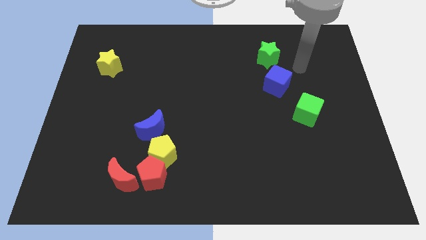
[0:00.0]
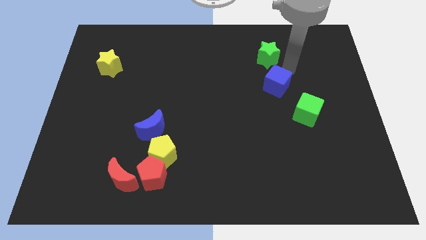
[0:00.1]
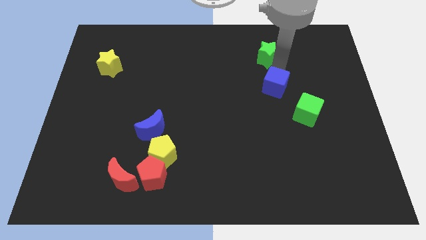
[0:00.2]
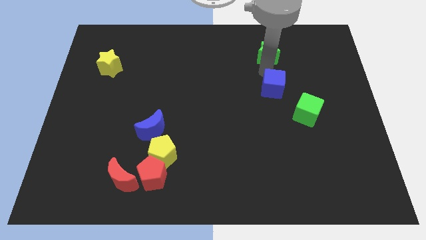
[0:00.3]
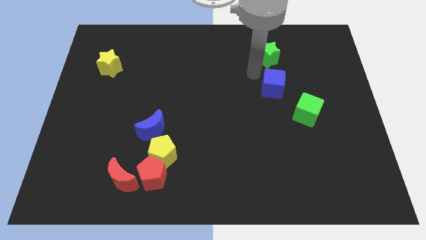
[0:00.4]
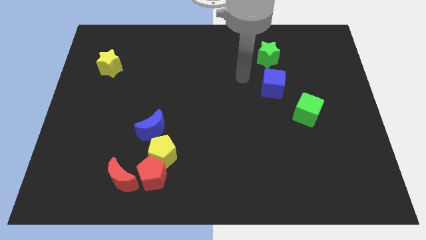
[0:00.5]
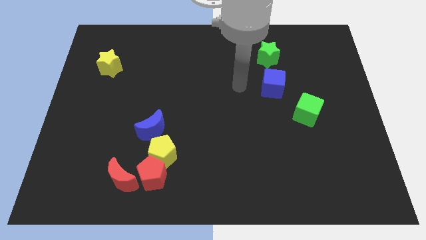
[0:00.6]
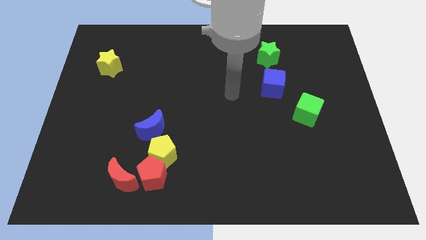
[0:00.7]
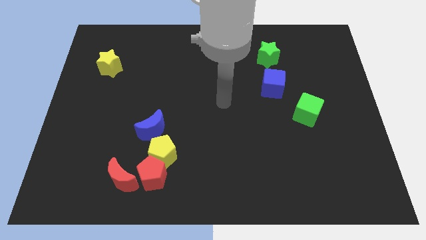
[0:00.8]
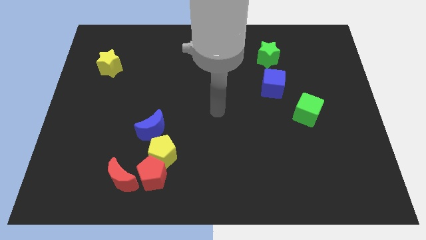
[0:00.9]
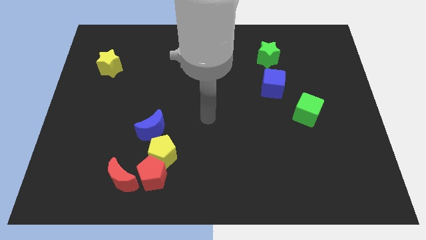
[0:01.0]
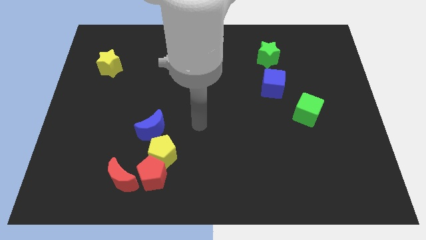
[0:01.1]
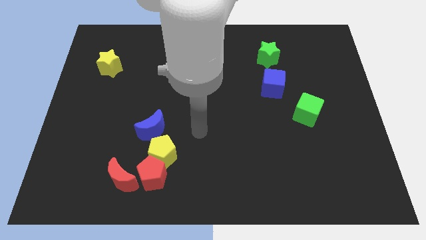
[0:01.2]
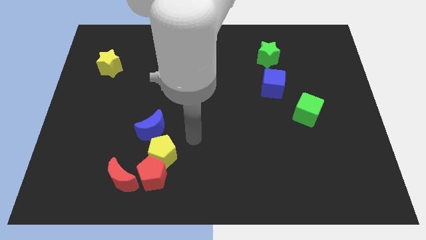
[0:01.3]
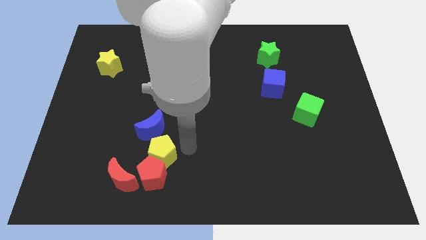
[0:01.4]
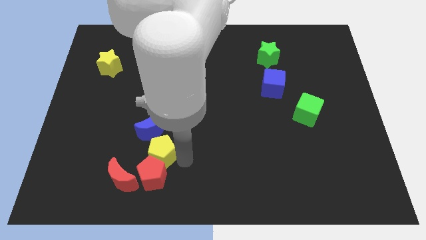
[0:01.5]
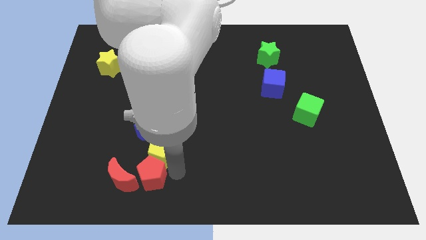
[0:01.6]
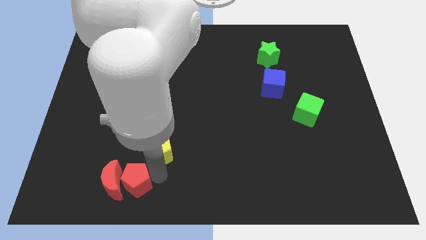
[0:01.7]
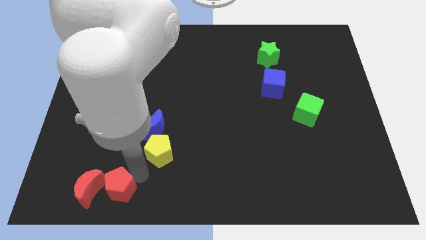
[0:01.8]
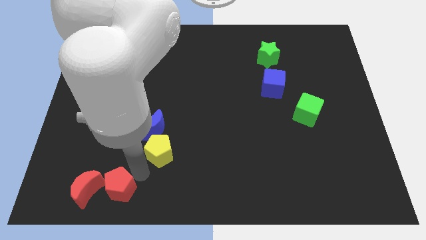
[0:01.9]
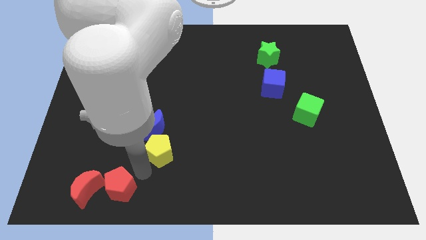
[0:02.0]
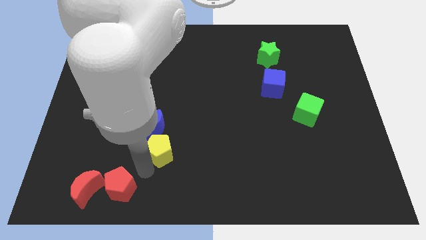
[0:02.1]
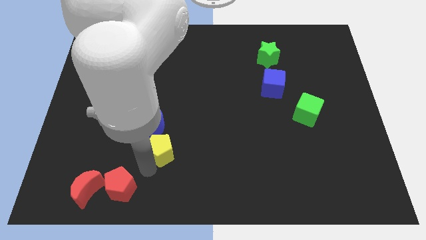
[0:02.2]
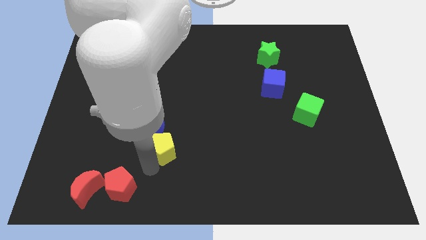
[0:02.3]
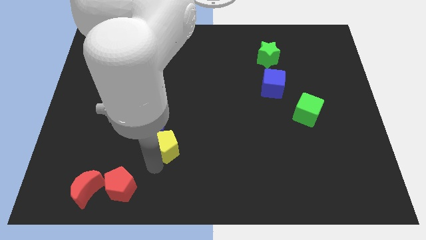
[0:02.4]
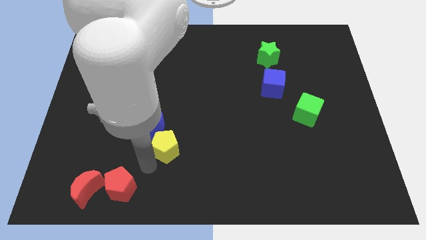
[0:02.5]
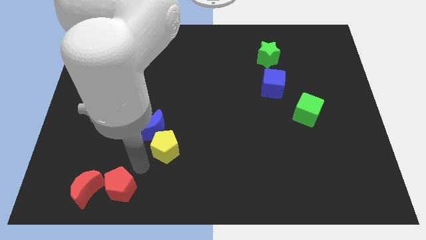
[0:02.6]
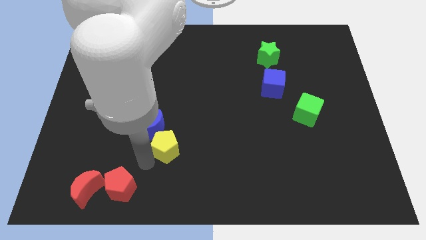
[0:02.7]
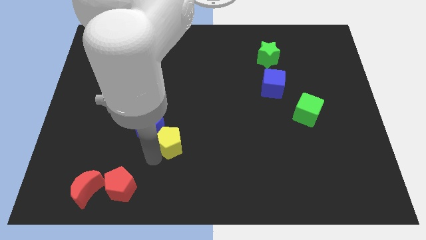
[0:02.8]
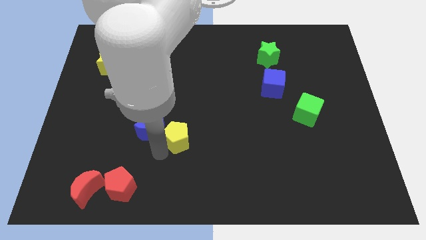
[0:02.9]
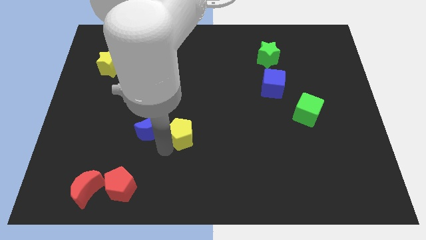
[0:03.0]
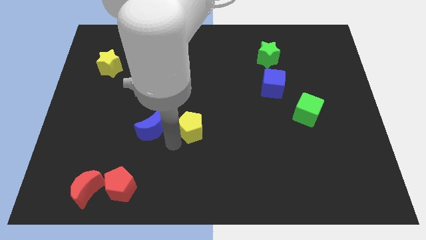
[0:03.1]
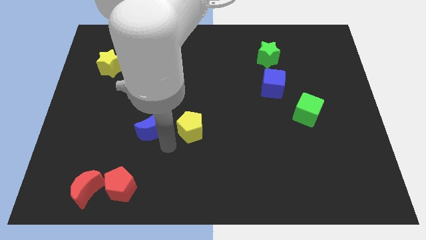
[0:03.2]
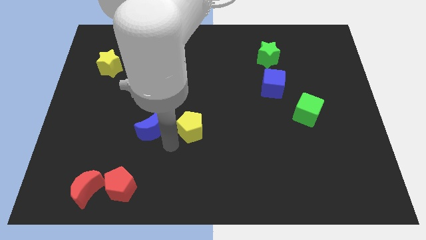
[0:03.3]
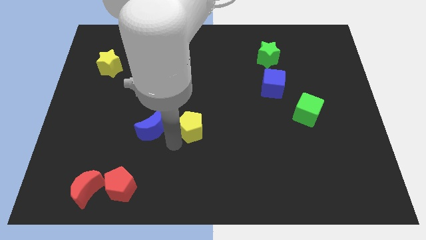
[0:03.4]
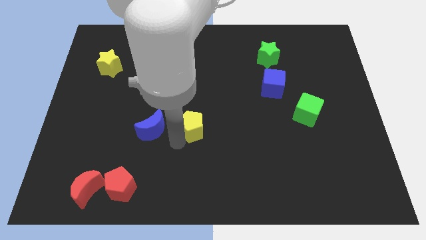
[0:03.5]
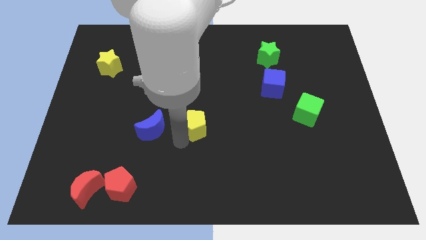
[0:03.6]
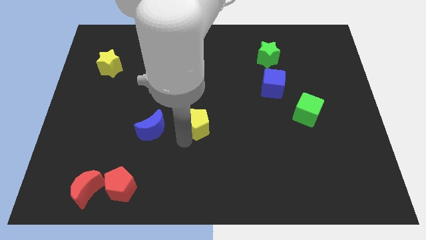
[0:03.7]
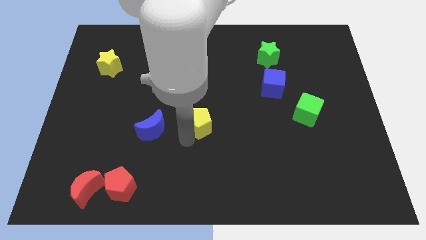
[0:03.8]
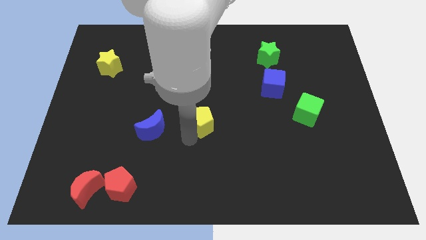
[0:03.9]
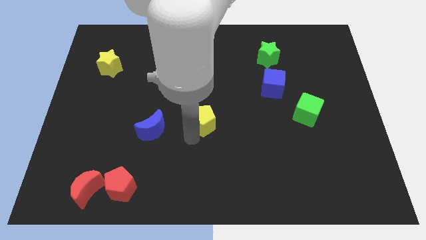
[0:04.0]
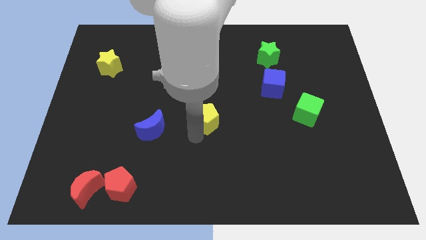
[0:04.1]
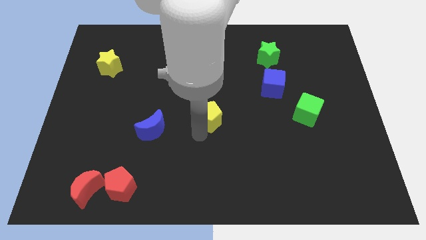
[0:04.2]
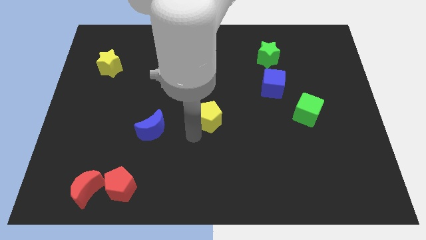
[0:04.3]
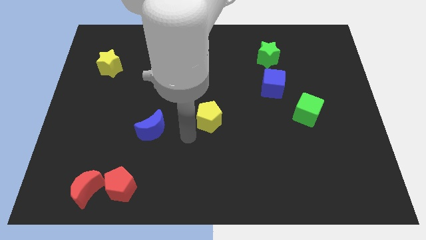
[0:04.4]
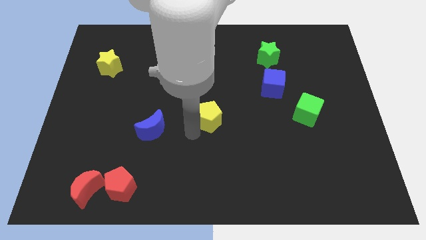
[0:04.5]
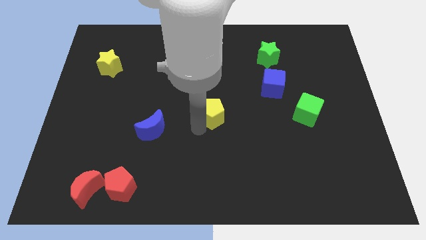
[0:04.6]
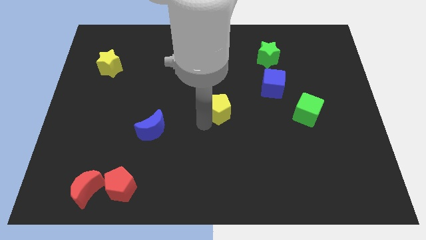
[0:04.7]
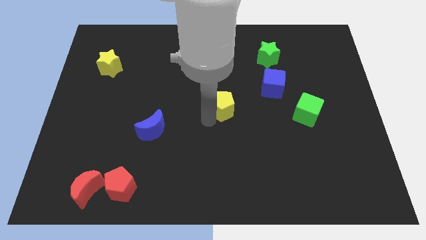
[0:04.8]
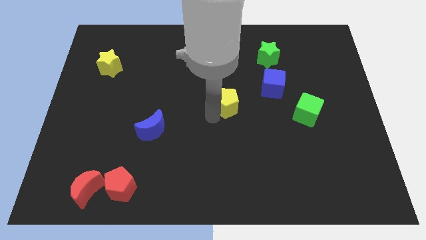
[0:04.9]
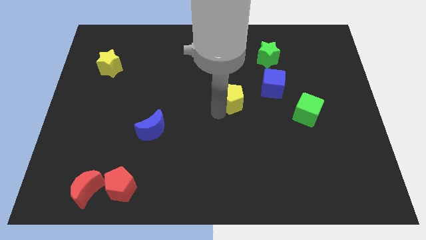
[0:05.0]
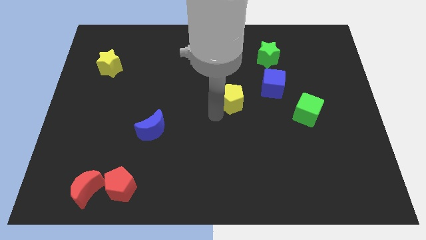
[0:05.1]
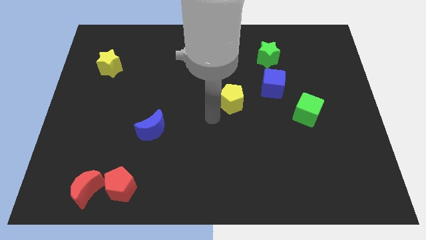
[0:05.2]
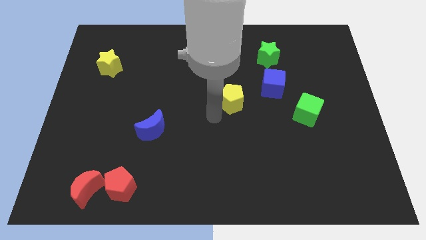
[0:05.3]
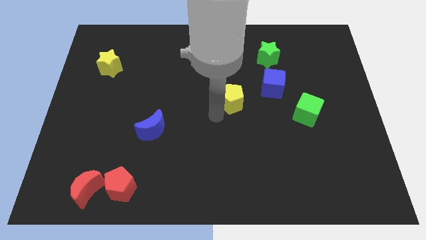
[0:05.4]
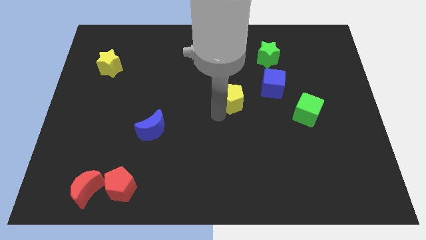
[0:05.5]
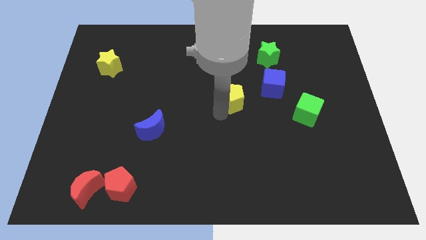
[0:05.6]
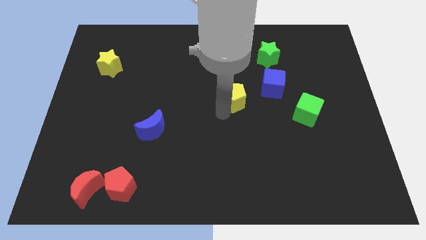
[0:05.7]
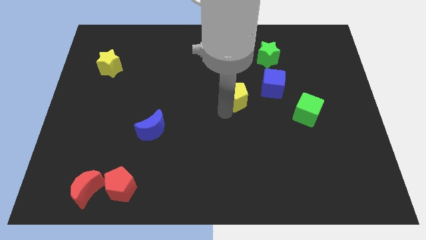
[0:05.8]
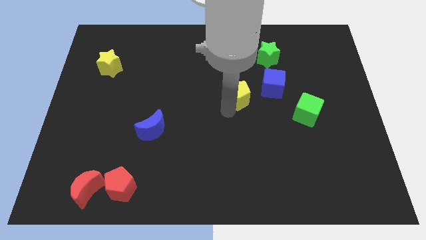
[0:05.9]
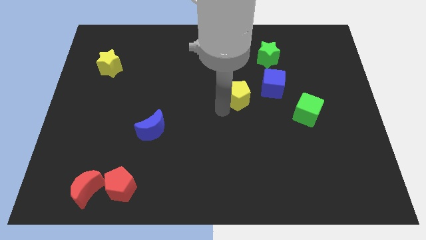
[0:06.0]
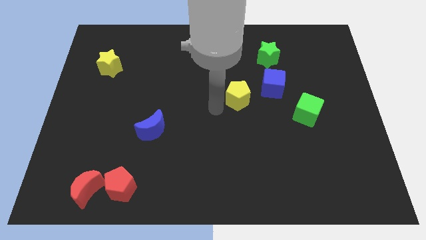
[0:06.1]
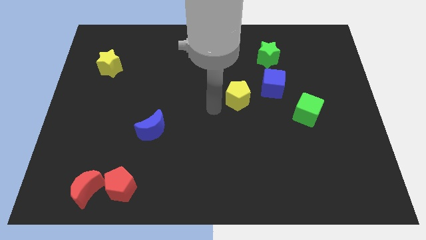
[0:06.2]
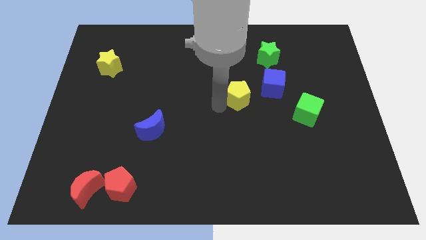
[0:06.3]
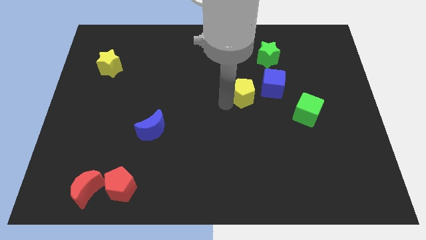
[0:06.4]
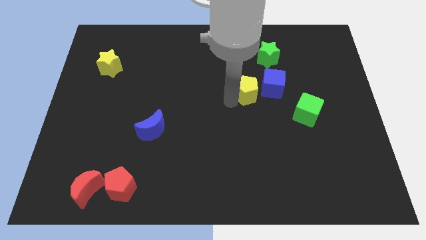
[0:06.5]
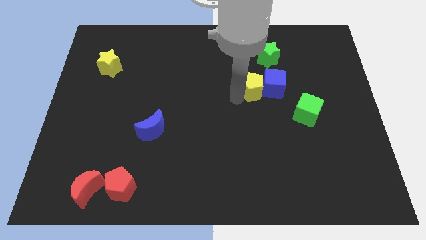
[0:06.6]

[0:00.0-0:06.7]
push the yellow pentagon towards the blue cube
